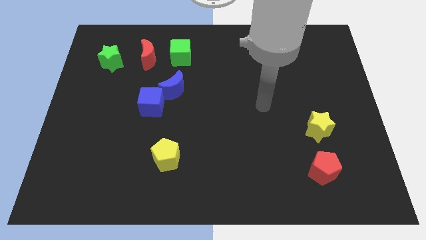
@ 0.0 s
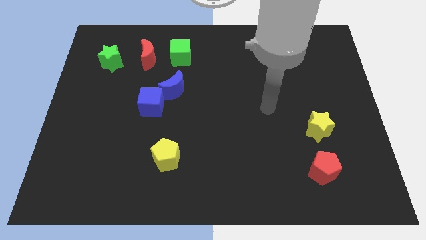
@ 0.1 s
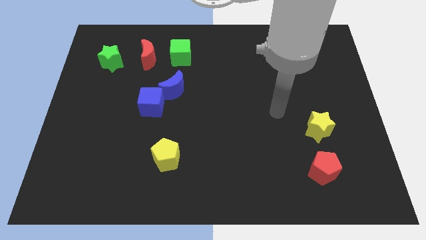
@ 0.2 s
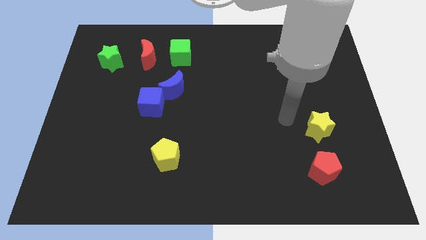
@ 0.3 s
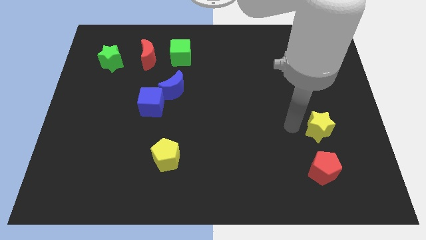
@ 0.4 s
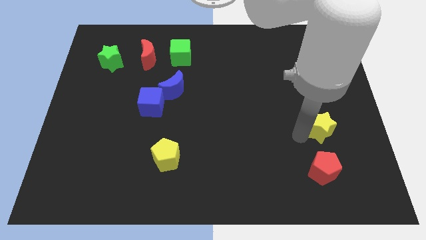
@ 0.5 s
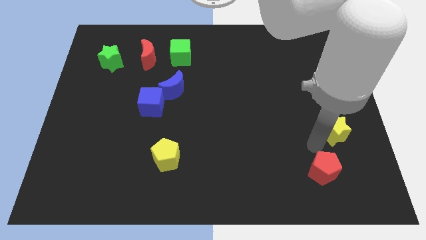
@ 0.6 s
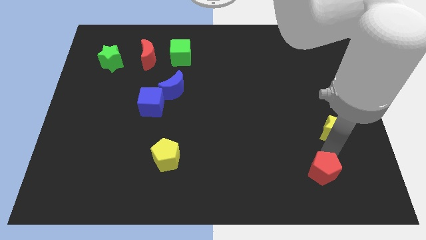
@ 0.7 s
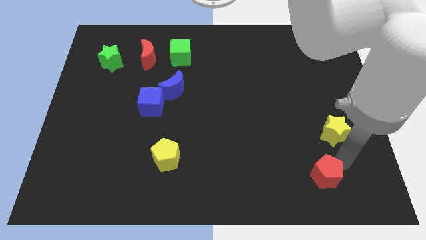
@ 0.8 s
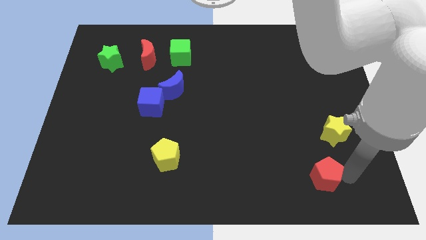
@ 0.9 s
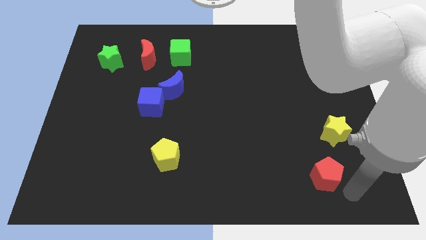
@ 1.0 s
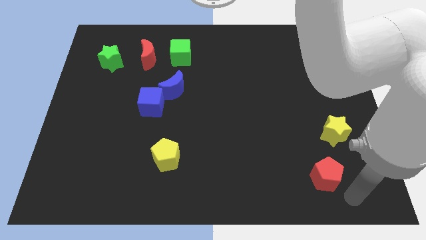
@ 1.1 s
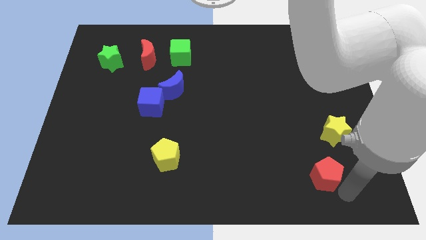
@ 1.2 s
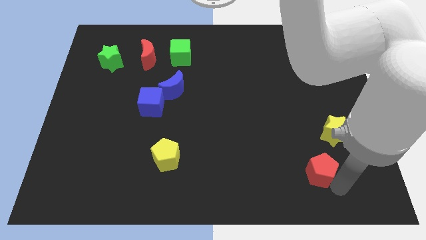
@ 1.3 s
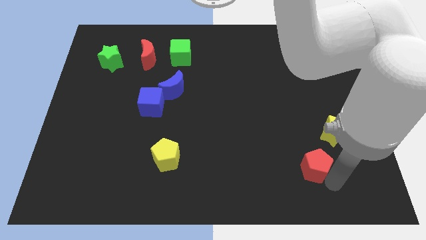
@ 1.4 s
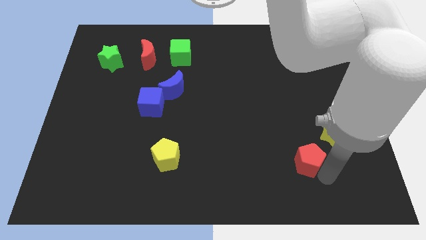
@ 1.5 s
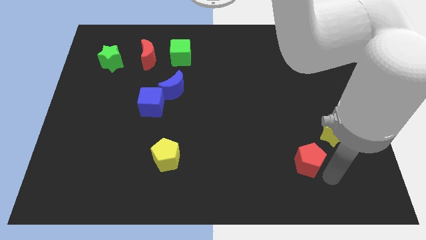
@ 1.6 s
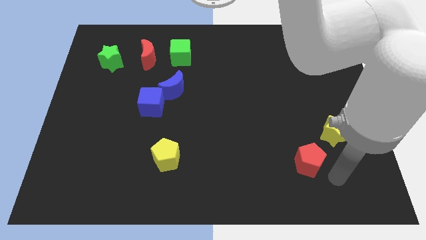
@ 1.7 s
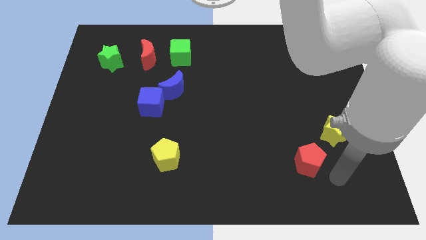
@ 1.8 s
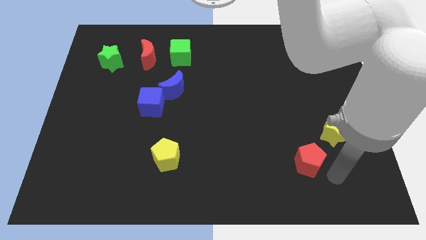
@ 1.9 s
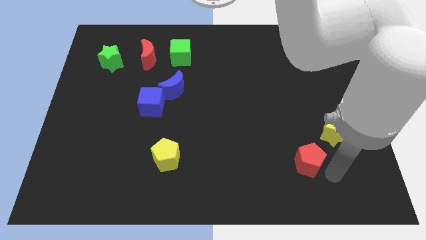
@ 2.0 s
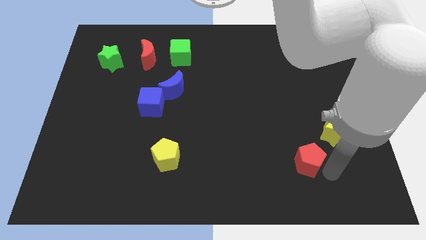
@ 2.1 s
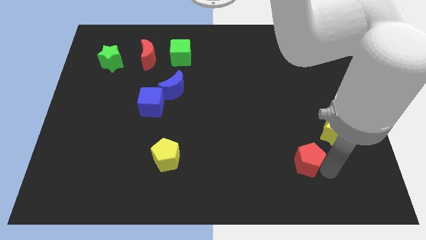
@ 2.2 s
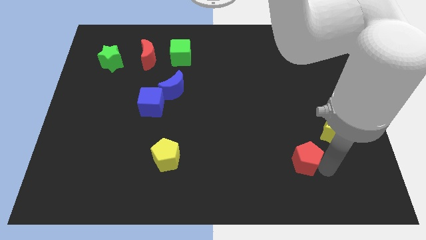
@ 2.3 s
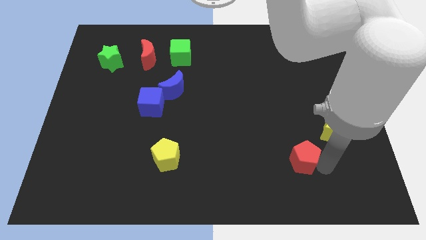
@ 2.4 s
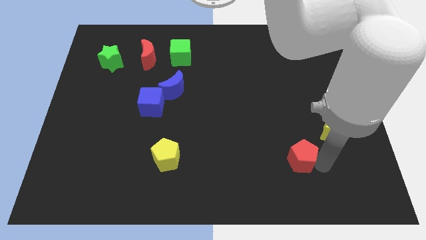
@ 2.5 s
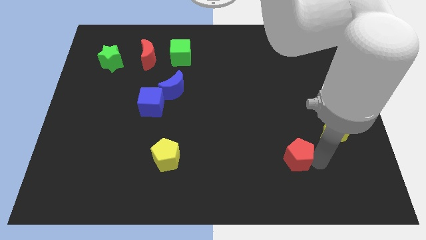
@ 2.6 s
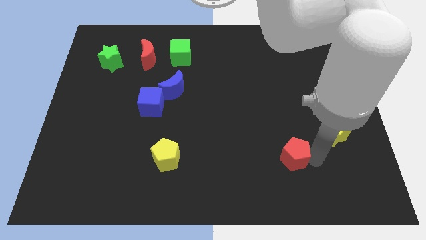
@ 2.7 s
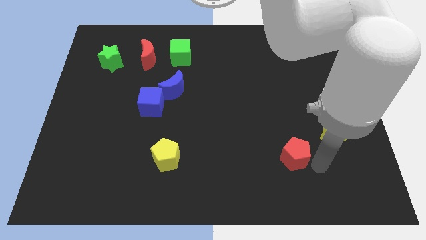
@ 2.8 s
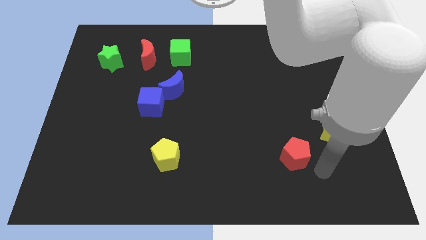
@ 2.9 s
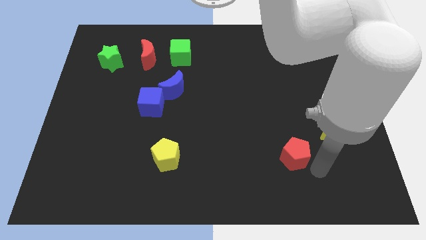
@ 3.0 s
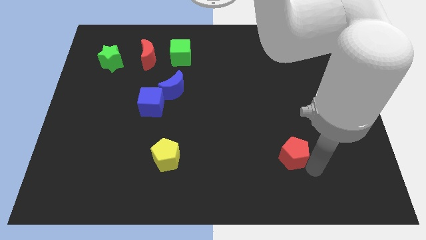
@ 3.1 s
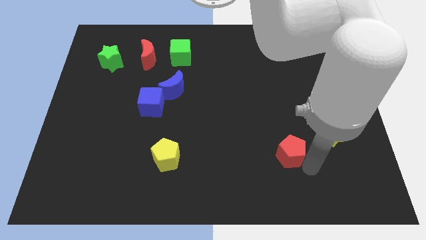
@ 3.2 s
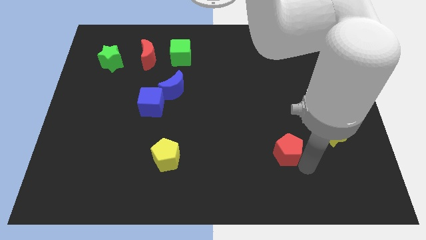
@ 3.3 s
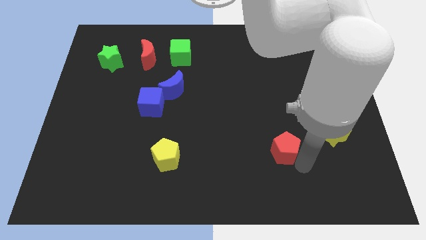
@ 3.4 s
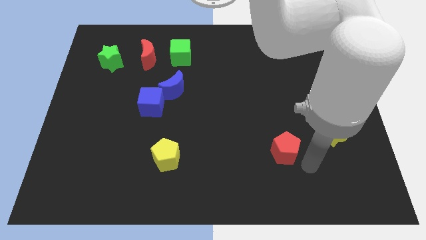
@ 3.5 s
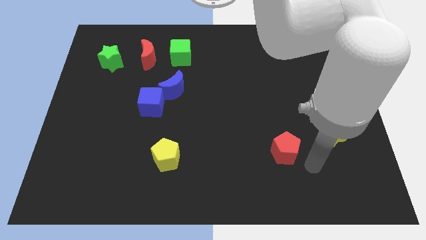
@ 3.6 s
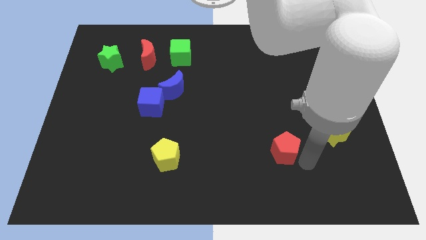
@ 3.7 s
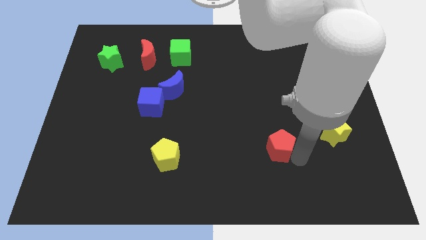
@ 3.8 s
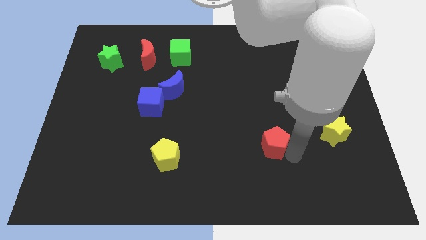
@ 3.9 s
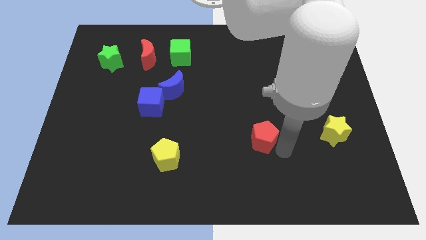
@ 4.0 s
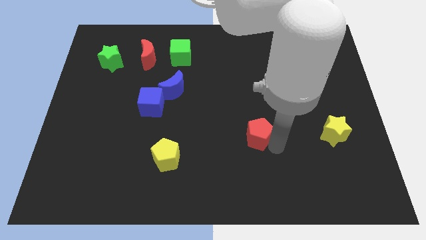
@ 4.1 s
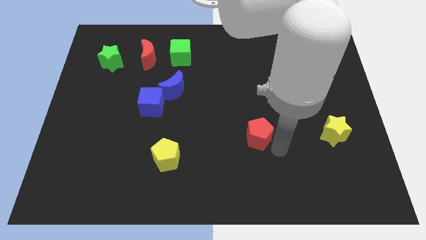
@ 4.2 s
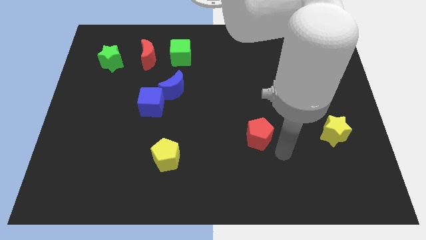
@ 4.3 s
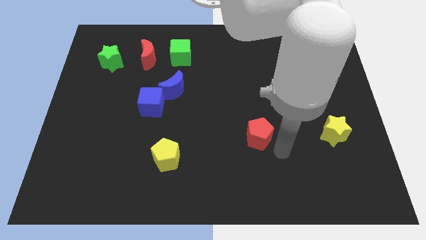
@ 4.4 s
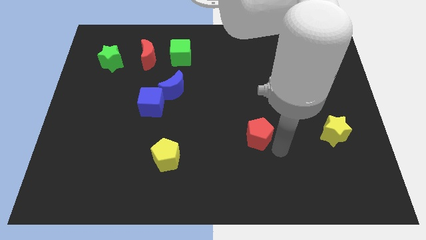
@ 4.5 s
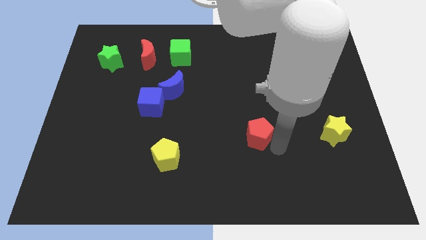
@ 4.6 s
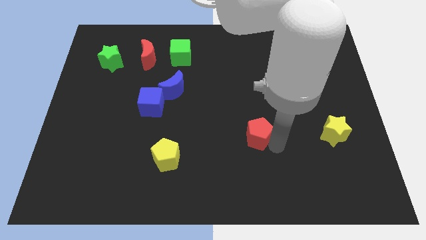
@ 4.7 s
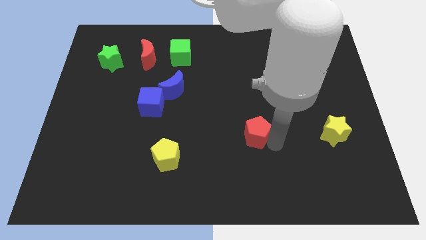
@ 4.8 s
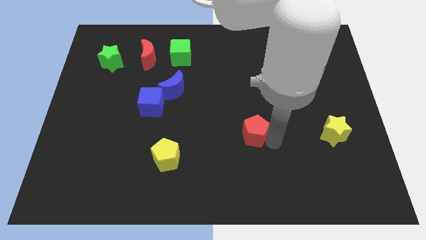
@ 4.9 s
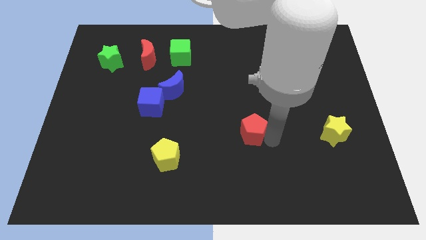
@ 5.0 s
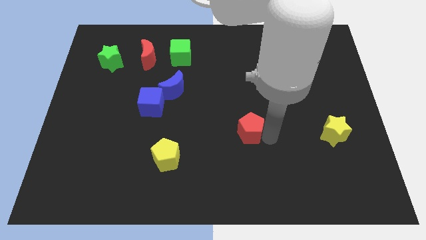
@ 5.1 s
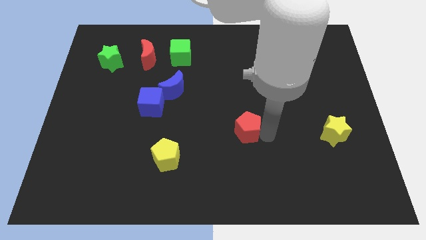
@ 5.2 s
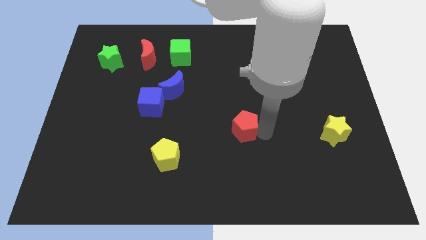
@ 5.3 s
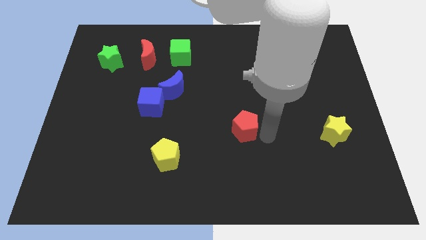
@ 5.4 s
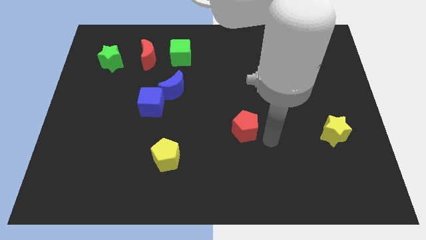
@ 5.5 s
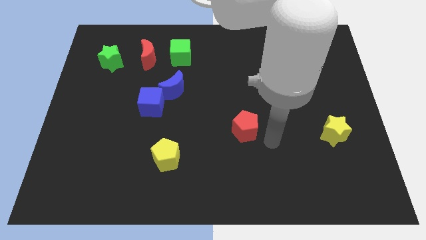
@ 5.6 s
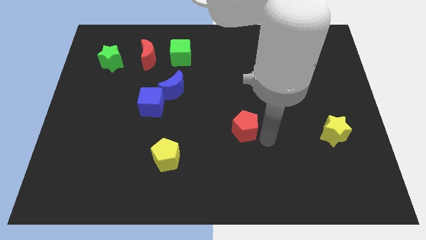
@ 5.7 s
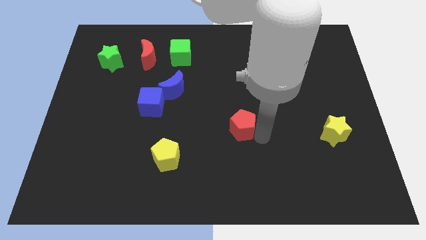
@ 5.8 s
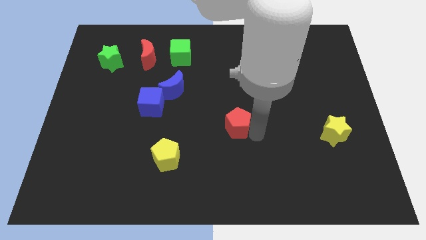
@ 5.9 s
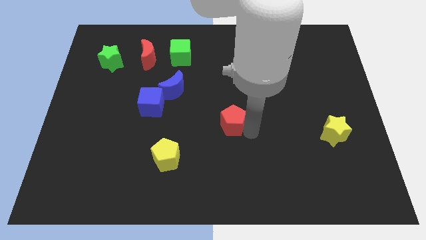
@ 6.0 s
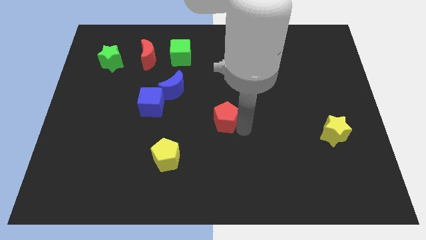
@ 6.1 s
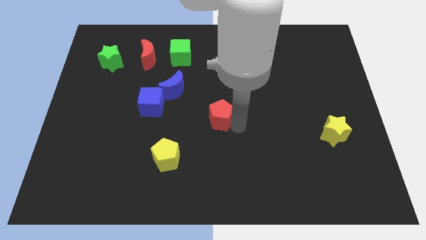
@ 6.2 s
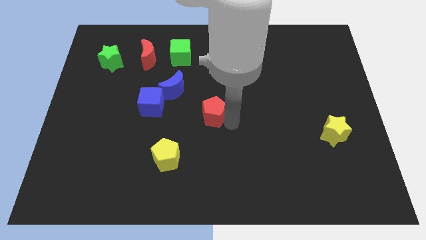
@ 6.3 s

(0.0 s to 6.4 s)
slide the red pentagon right of the blue cube
